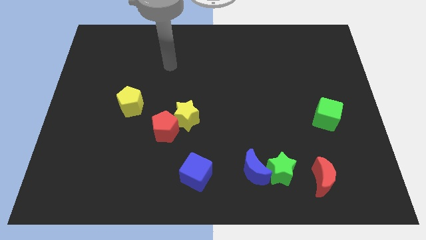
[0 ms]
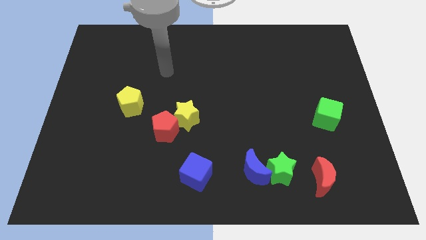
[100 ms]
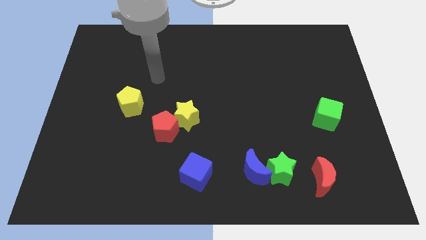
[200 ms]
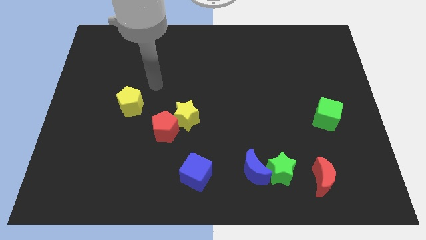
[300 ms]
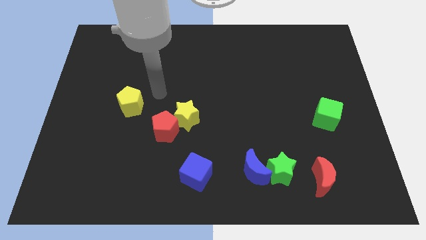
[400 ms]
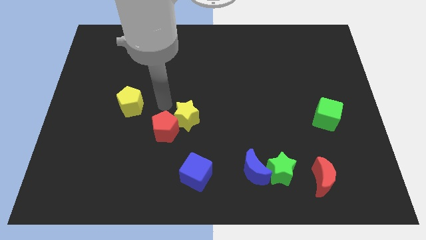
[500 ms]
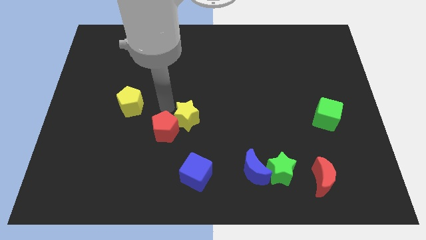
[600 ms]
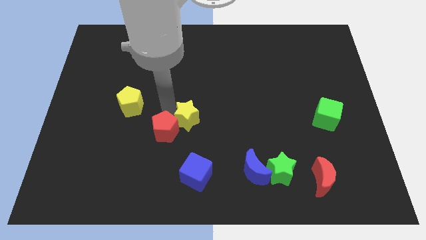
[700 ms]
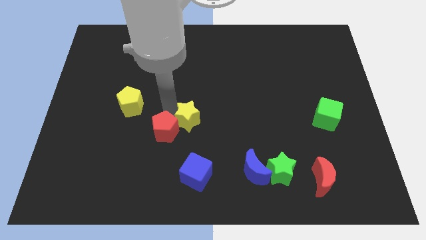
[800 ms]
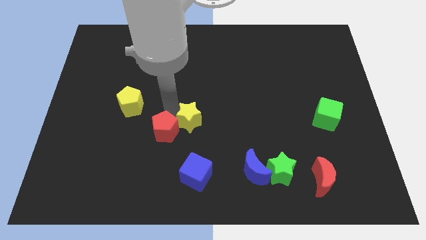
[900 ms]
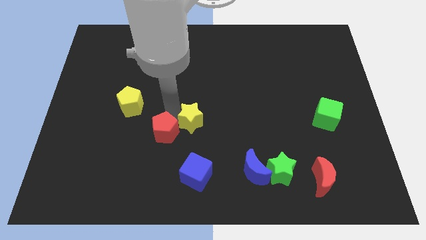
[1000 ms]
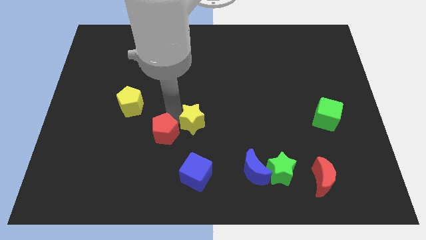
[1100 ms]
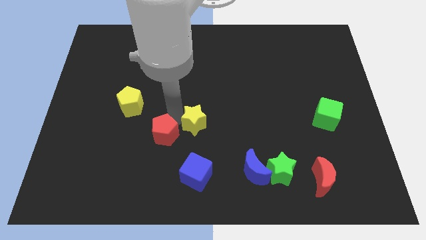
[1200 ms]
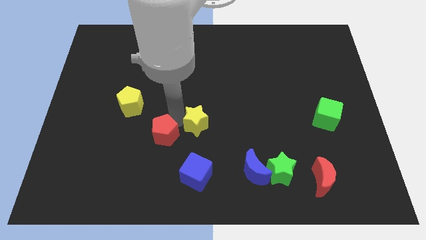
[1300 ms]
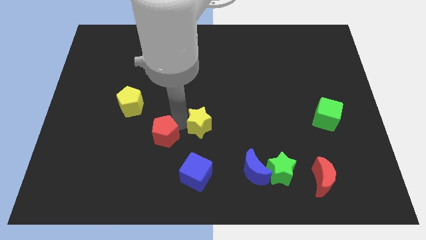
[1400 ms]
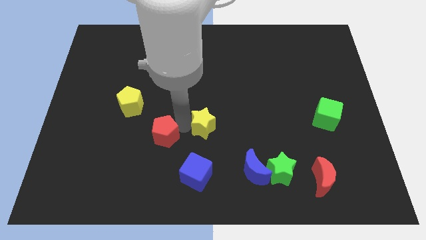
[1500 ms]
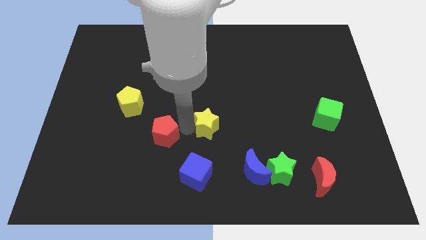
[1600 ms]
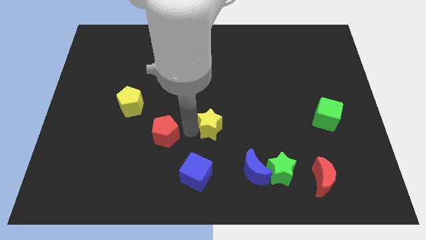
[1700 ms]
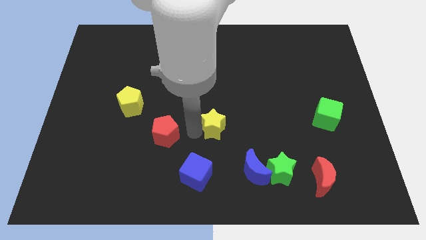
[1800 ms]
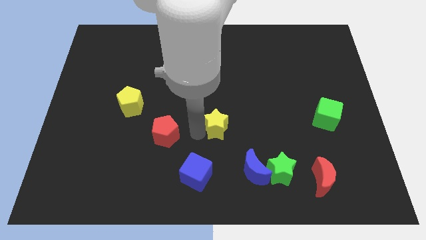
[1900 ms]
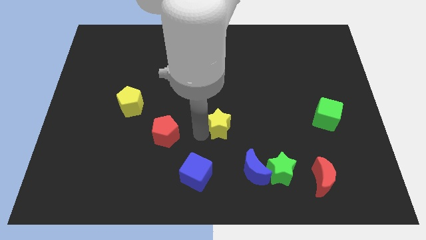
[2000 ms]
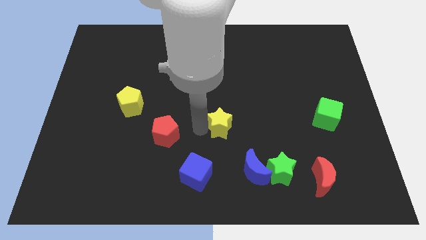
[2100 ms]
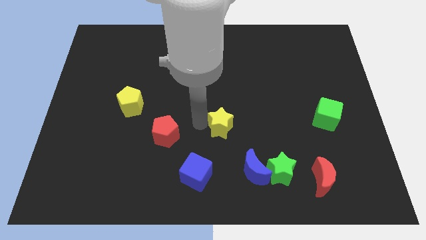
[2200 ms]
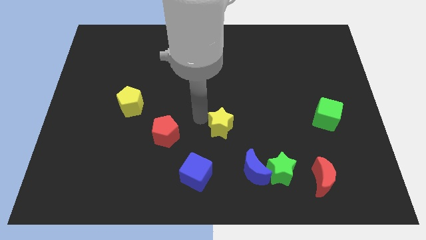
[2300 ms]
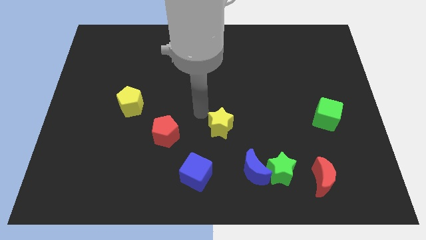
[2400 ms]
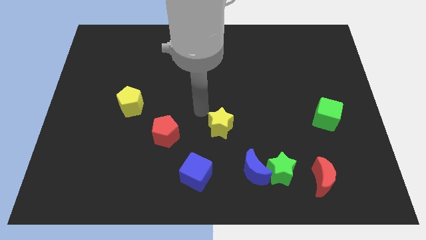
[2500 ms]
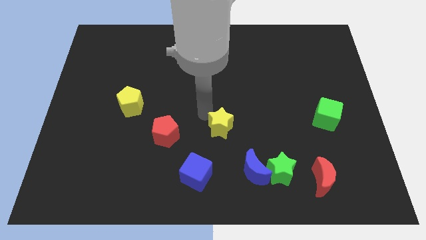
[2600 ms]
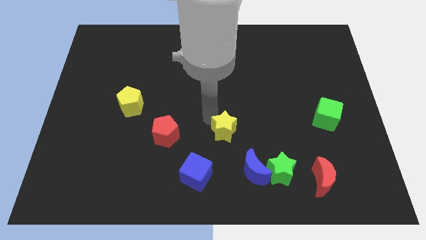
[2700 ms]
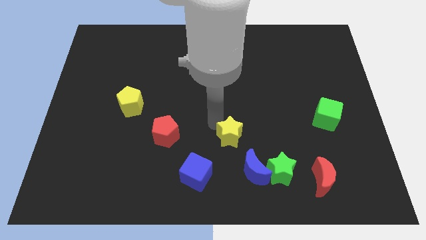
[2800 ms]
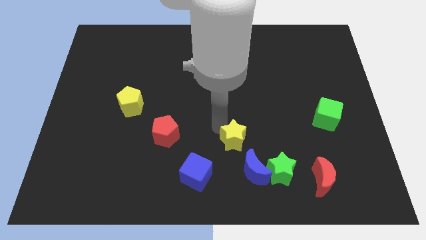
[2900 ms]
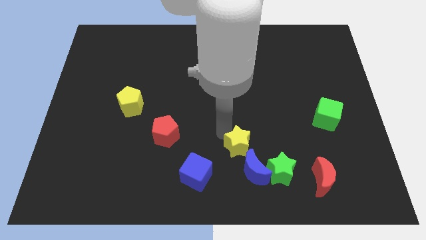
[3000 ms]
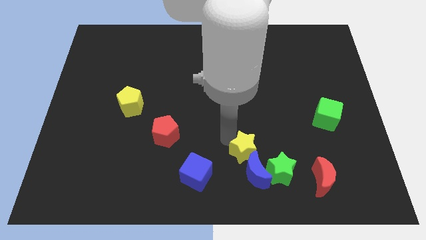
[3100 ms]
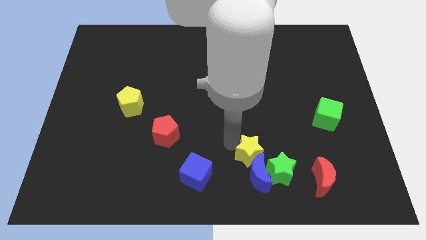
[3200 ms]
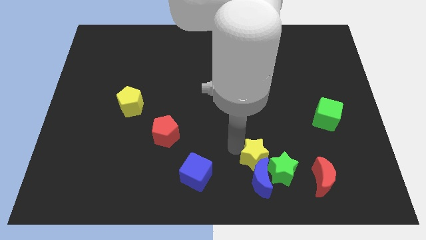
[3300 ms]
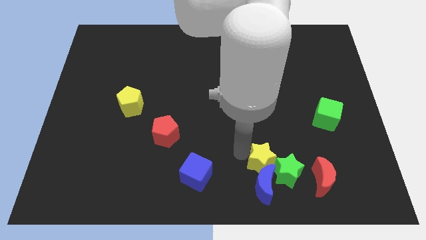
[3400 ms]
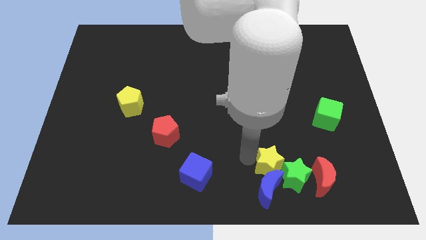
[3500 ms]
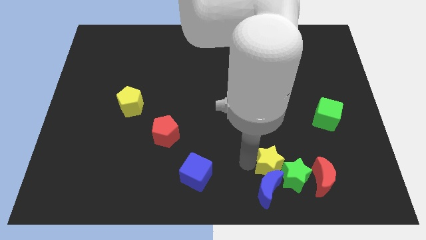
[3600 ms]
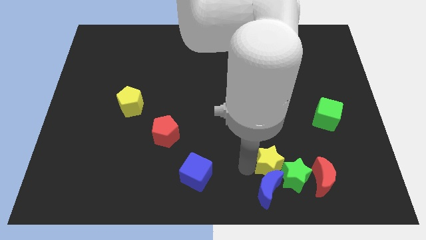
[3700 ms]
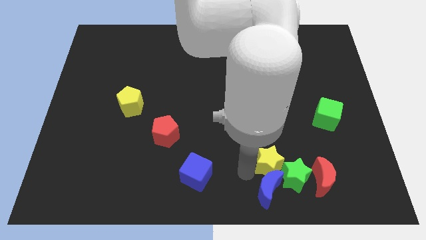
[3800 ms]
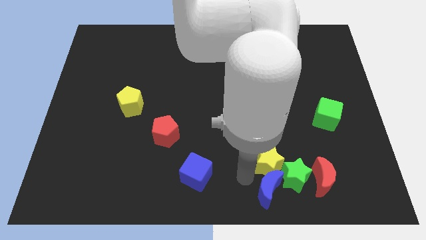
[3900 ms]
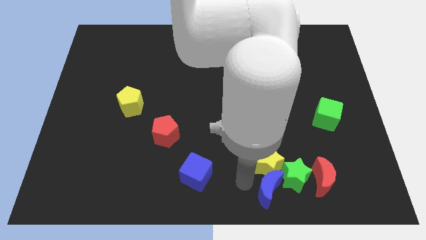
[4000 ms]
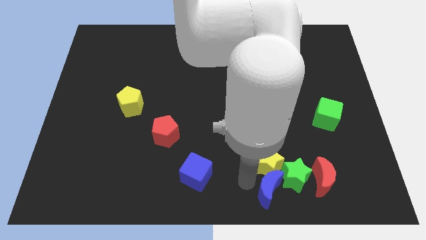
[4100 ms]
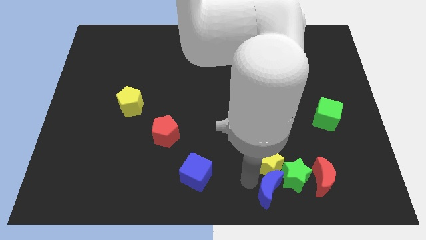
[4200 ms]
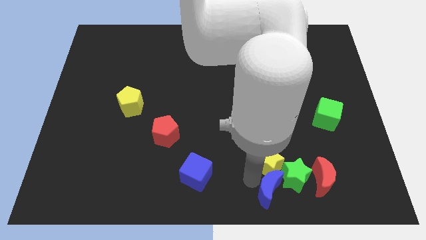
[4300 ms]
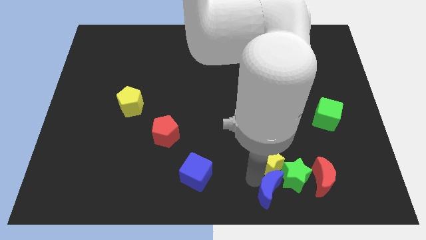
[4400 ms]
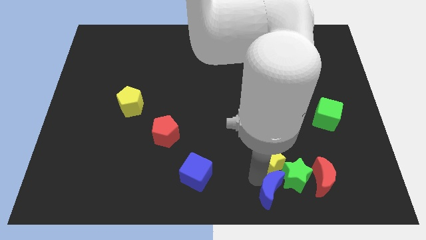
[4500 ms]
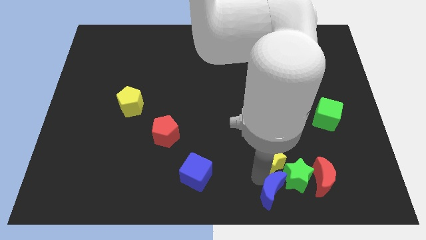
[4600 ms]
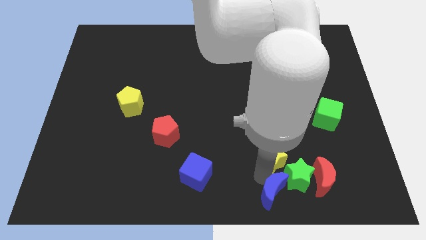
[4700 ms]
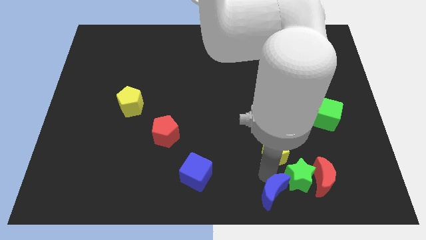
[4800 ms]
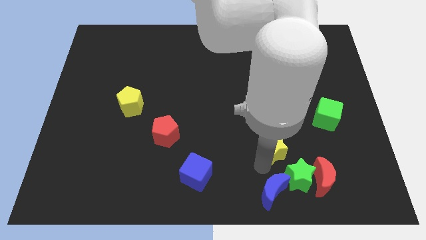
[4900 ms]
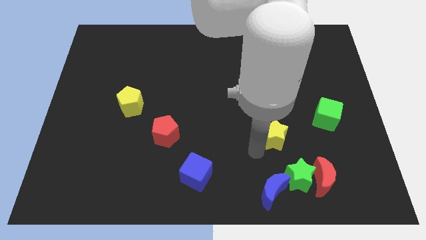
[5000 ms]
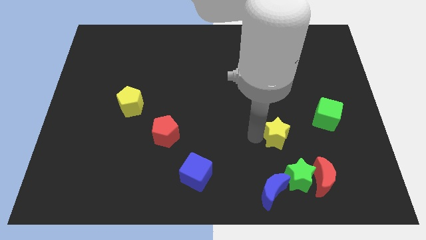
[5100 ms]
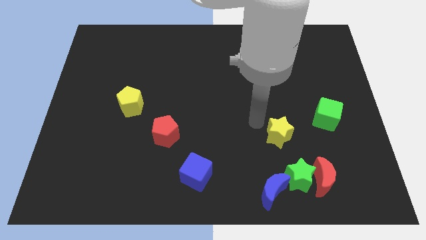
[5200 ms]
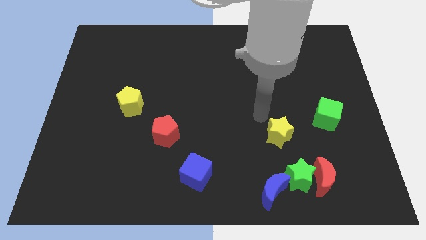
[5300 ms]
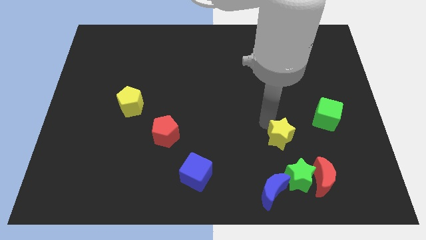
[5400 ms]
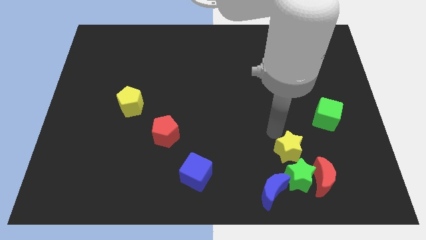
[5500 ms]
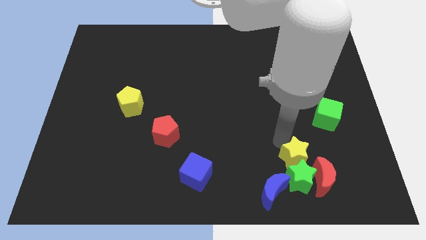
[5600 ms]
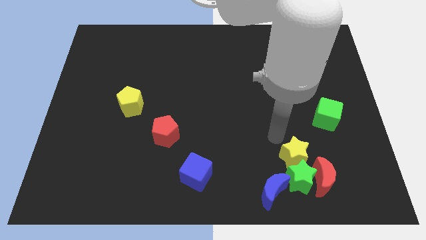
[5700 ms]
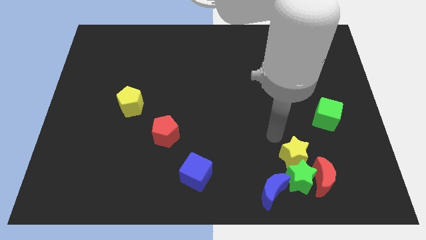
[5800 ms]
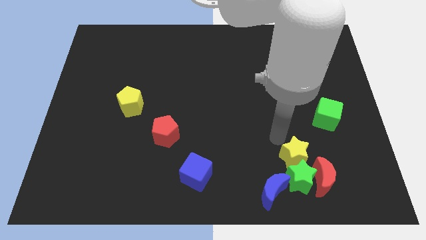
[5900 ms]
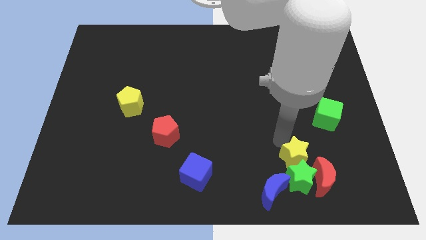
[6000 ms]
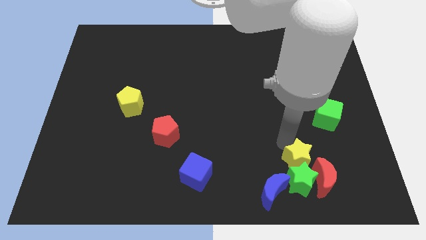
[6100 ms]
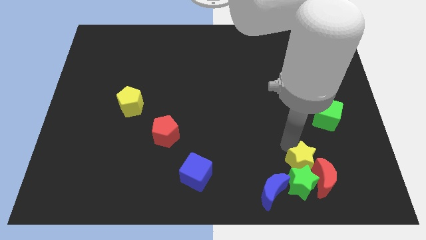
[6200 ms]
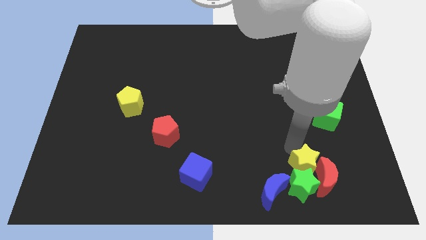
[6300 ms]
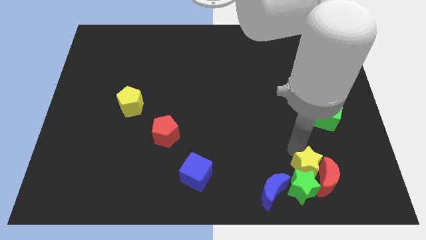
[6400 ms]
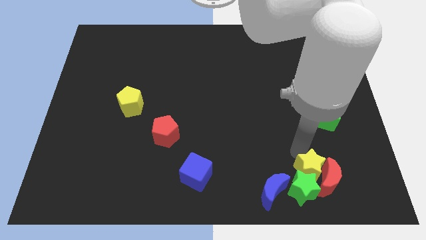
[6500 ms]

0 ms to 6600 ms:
move the yellow star to the right side of the blue moon

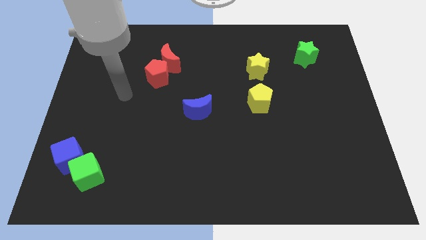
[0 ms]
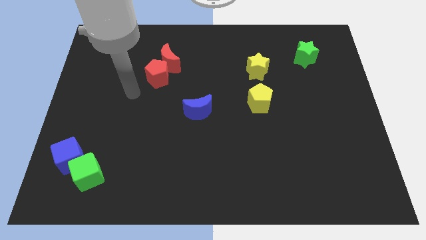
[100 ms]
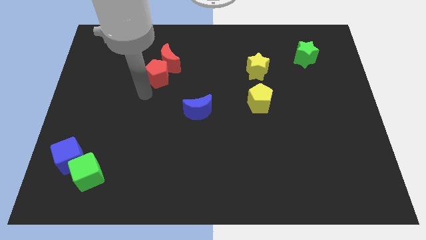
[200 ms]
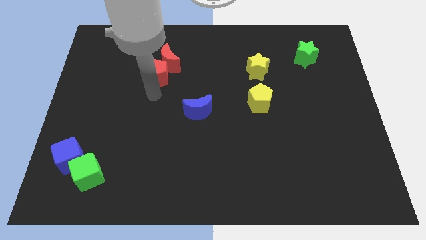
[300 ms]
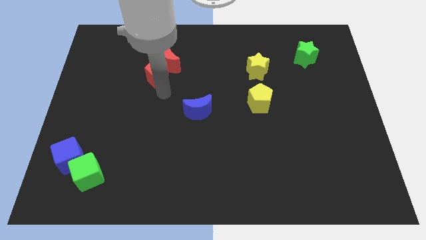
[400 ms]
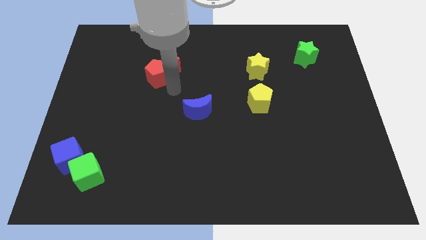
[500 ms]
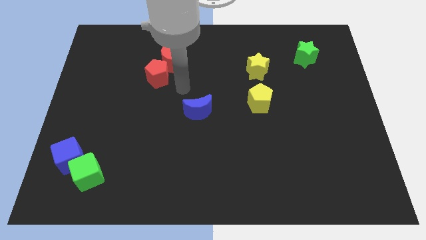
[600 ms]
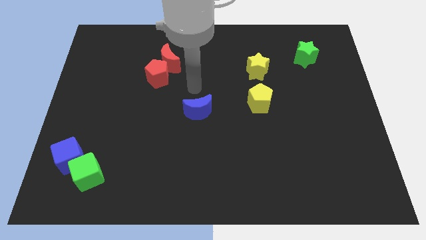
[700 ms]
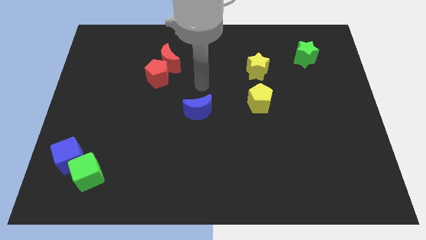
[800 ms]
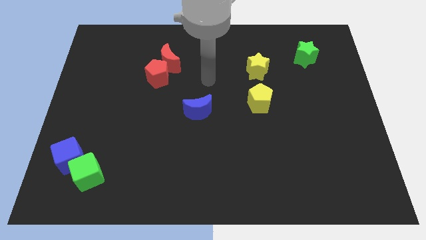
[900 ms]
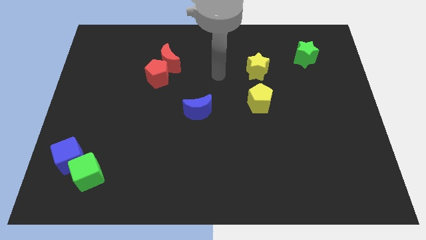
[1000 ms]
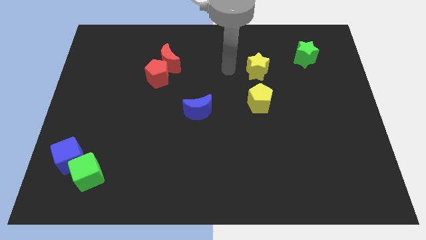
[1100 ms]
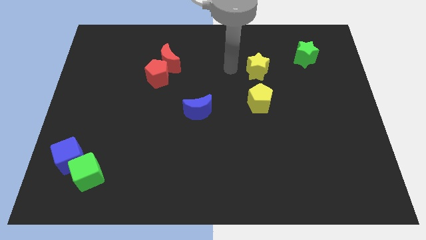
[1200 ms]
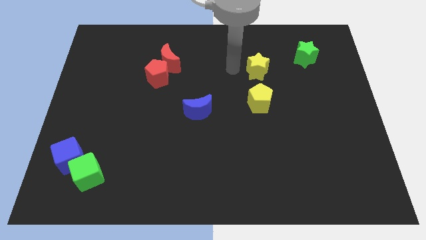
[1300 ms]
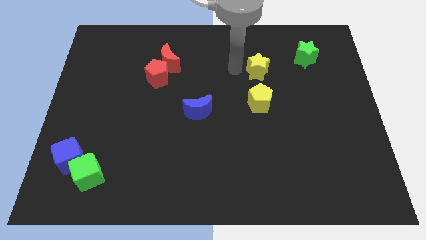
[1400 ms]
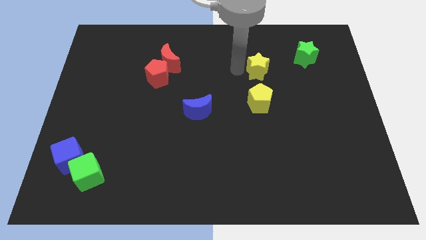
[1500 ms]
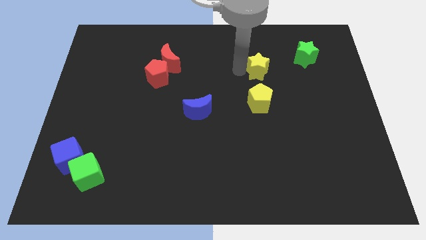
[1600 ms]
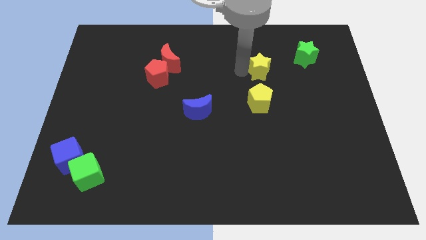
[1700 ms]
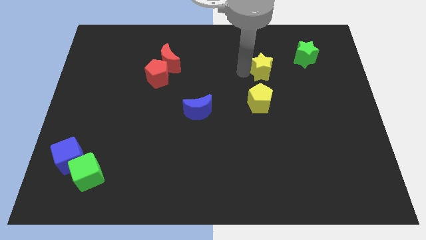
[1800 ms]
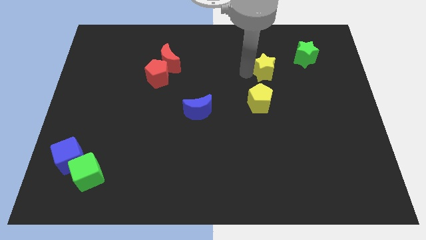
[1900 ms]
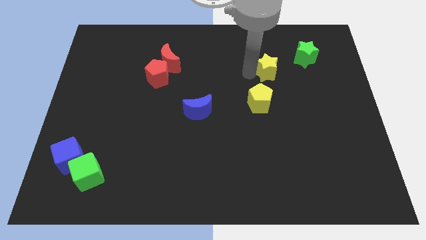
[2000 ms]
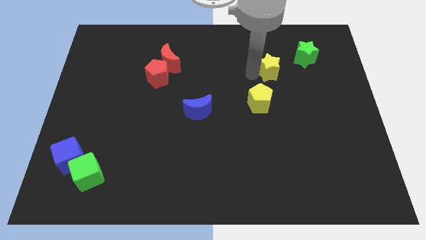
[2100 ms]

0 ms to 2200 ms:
put the yellow star to the bottom left of the green star
